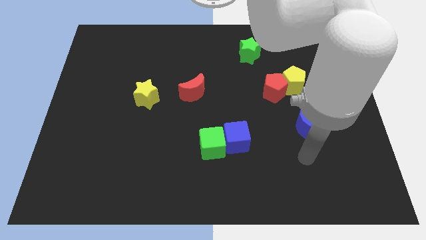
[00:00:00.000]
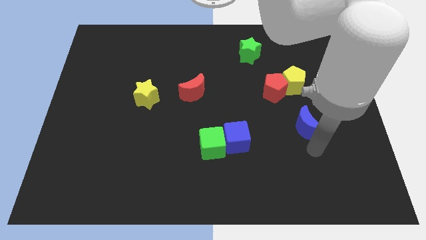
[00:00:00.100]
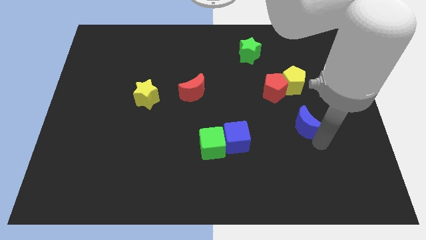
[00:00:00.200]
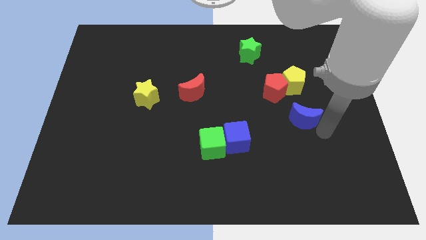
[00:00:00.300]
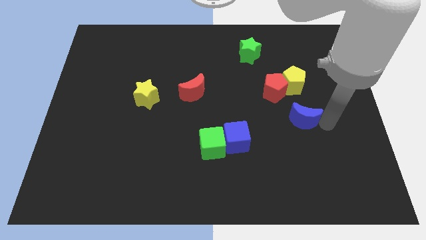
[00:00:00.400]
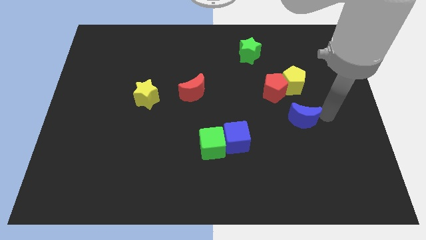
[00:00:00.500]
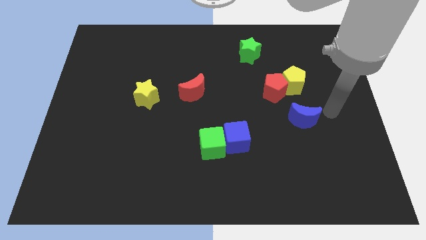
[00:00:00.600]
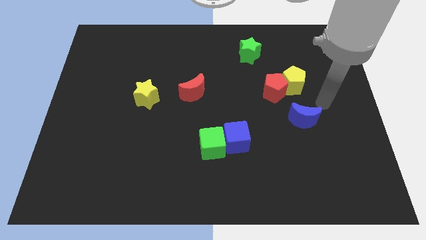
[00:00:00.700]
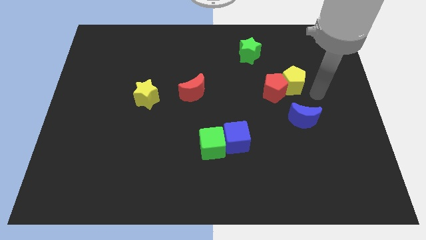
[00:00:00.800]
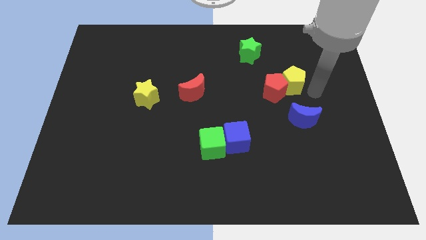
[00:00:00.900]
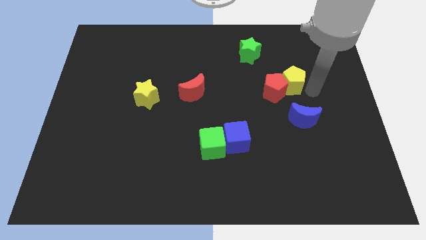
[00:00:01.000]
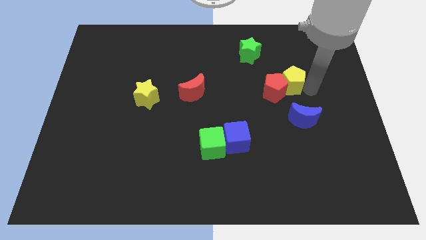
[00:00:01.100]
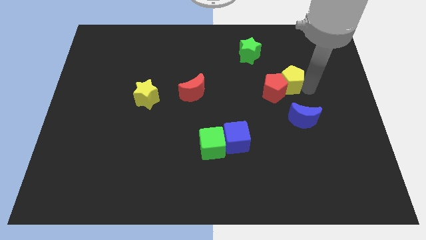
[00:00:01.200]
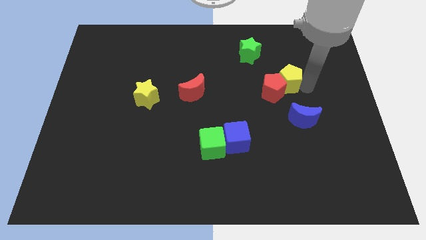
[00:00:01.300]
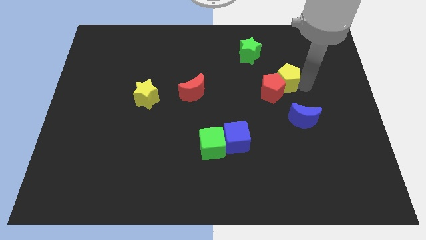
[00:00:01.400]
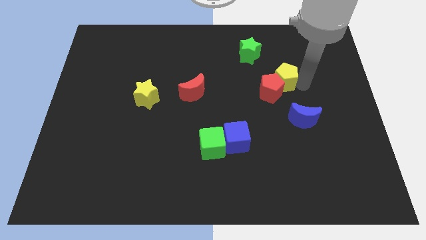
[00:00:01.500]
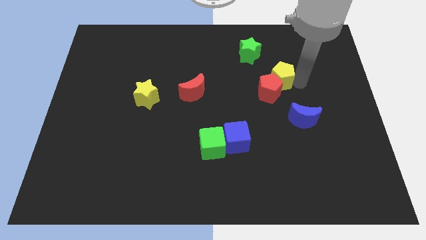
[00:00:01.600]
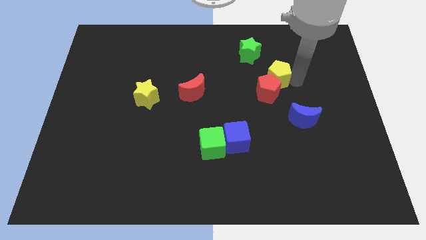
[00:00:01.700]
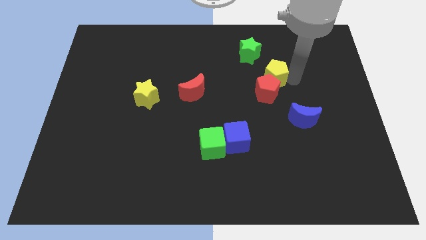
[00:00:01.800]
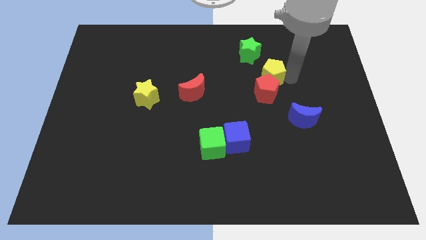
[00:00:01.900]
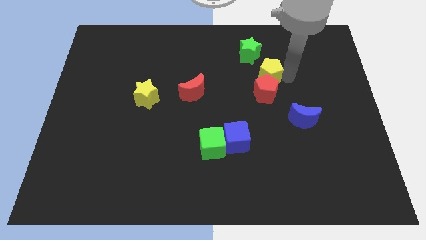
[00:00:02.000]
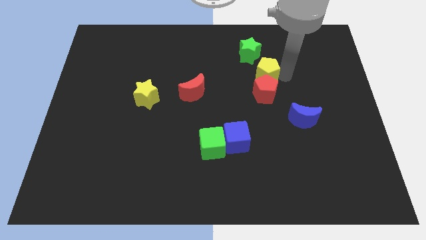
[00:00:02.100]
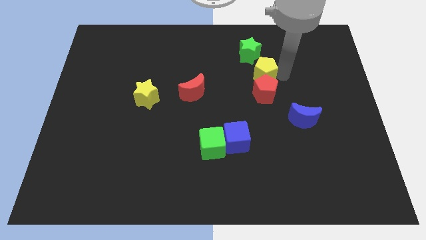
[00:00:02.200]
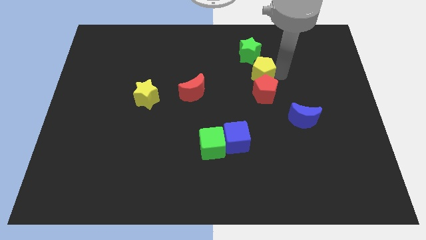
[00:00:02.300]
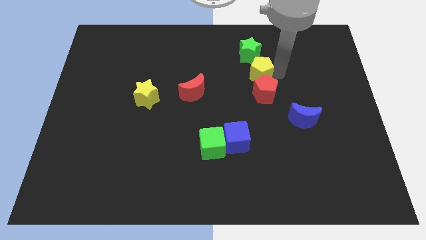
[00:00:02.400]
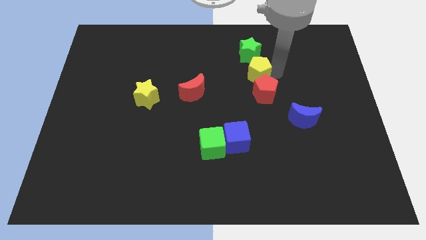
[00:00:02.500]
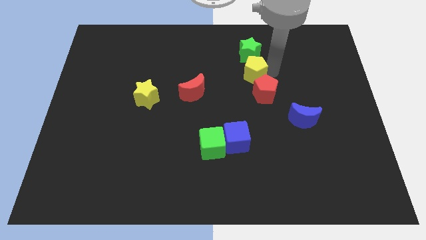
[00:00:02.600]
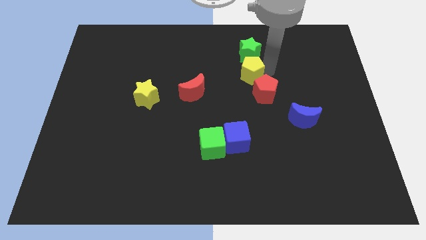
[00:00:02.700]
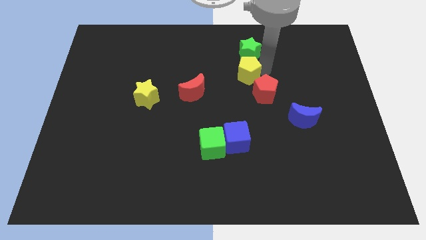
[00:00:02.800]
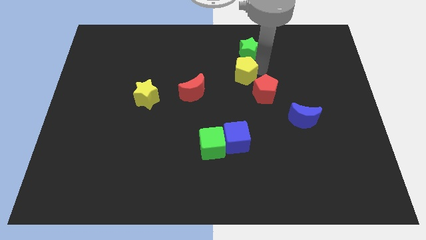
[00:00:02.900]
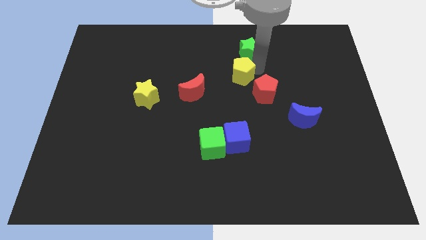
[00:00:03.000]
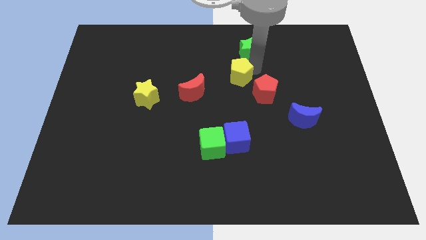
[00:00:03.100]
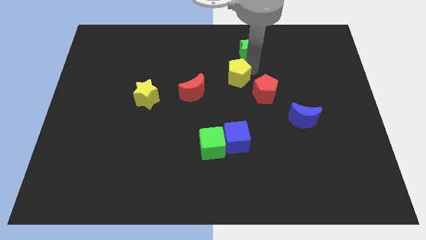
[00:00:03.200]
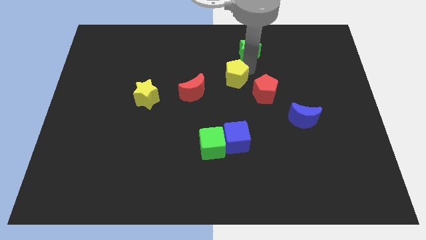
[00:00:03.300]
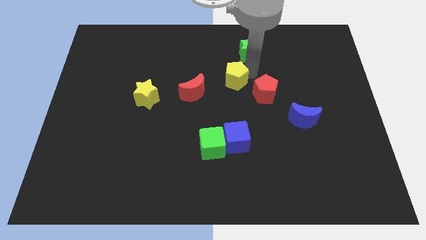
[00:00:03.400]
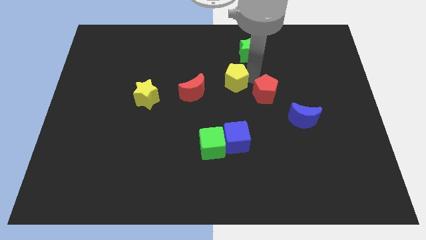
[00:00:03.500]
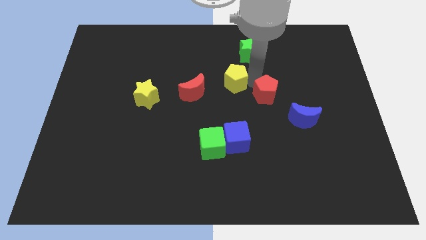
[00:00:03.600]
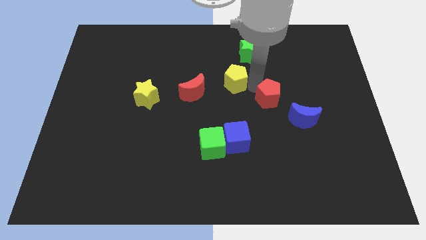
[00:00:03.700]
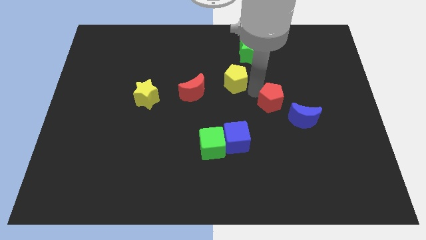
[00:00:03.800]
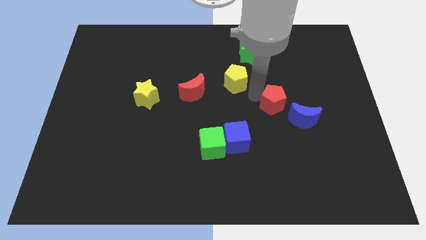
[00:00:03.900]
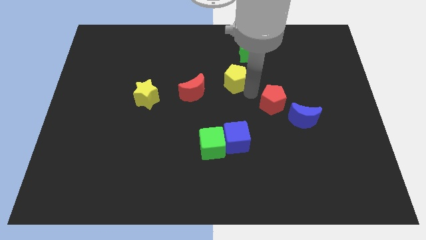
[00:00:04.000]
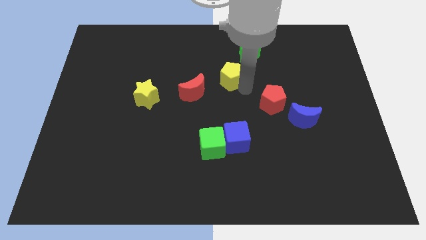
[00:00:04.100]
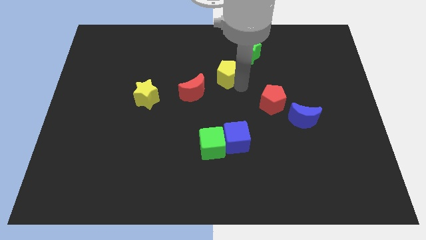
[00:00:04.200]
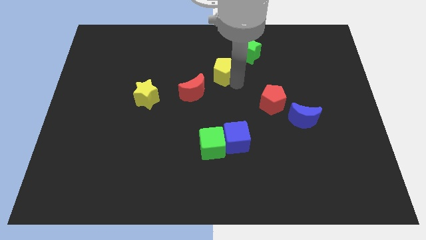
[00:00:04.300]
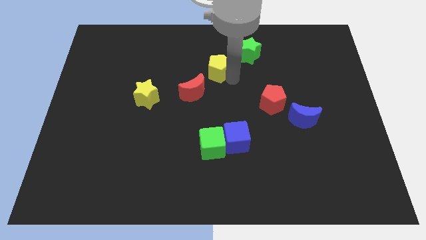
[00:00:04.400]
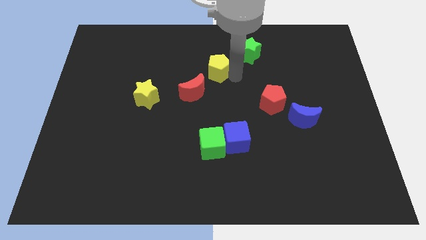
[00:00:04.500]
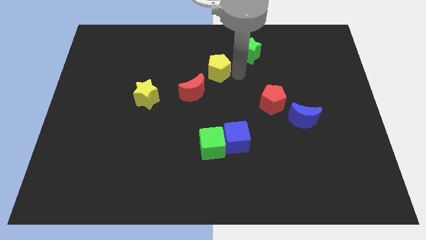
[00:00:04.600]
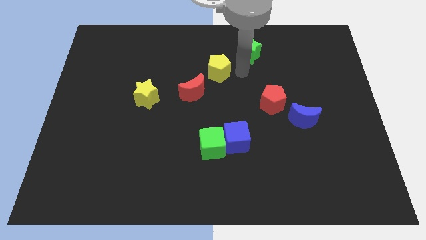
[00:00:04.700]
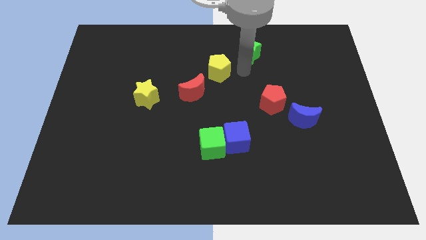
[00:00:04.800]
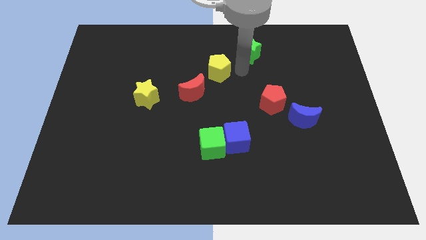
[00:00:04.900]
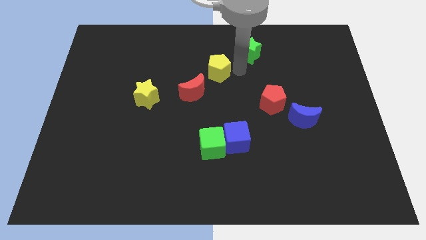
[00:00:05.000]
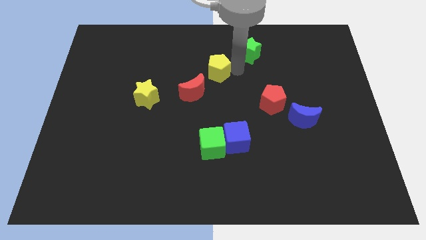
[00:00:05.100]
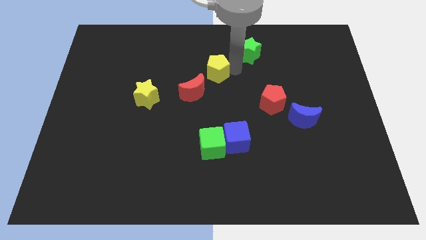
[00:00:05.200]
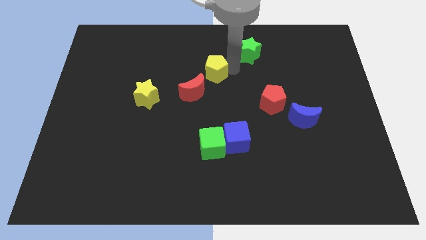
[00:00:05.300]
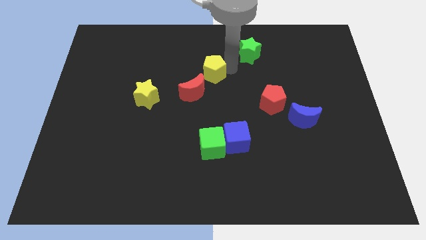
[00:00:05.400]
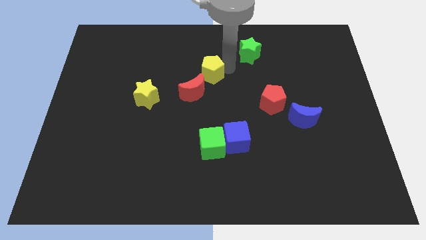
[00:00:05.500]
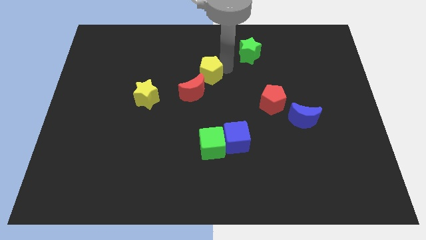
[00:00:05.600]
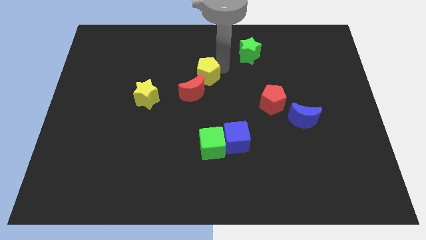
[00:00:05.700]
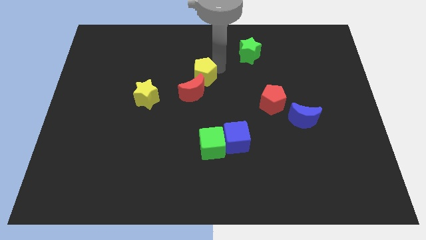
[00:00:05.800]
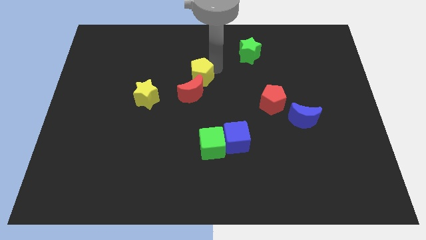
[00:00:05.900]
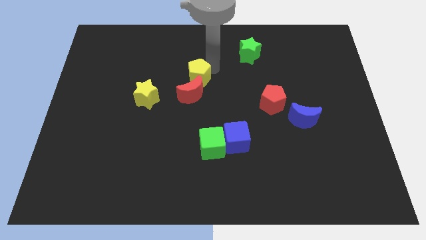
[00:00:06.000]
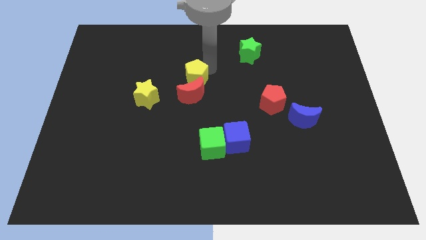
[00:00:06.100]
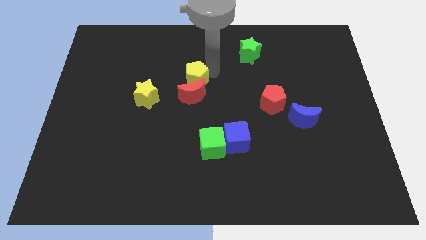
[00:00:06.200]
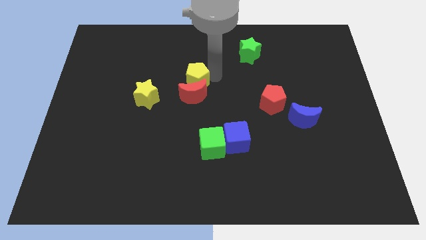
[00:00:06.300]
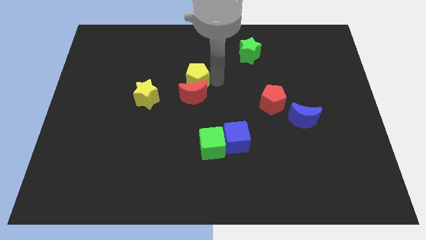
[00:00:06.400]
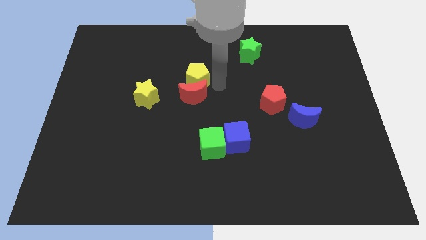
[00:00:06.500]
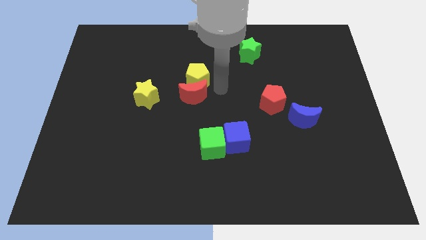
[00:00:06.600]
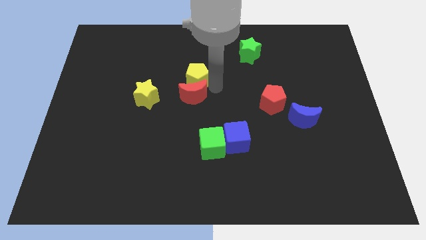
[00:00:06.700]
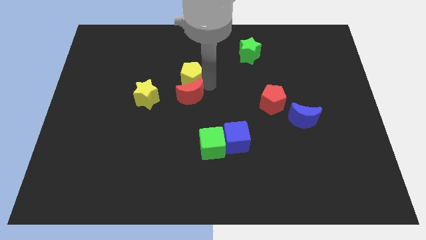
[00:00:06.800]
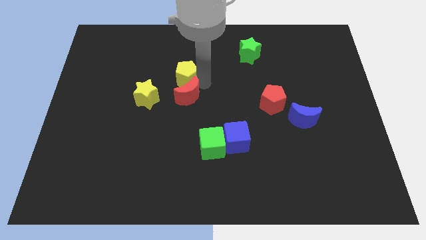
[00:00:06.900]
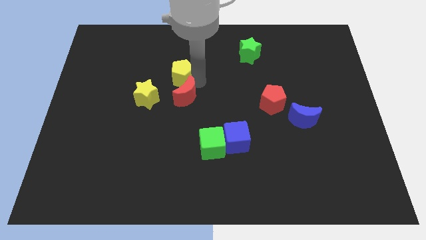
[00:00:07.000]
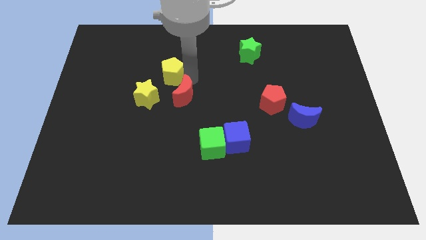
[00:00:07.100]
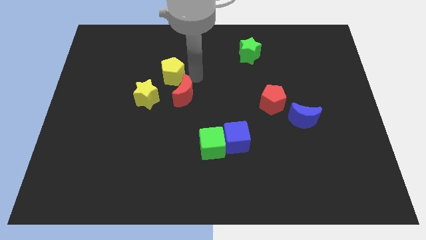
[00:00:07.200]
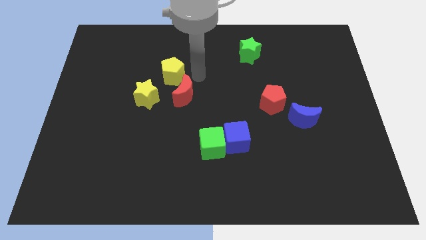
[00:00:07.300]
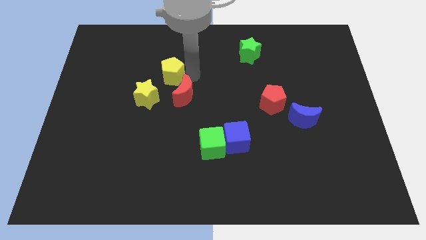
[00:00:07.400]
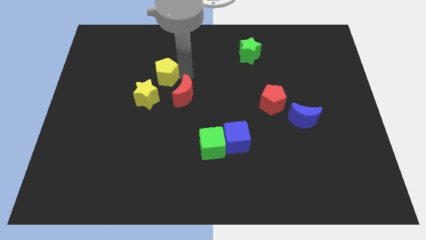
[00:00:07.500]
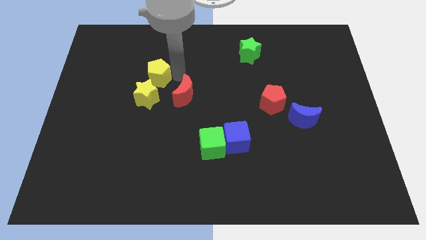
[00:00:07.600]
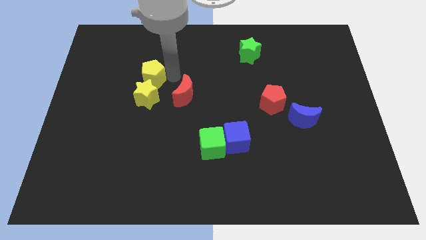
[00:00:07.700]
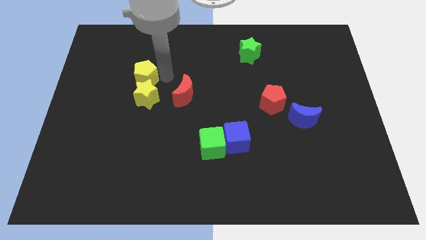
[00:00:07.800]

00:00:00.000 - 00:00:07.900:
push the yellow pentagon to the top left of the yellow star
